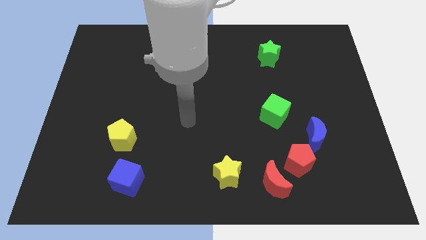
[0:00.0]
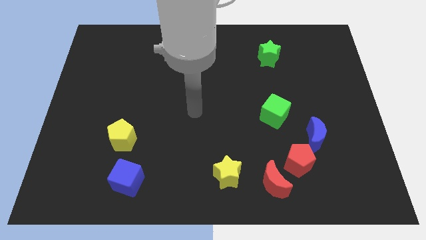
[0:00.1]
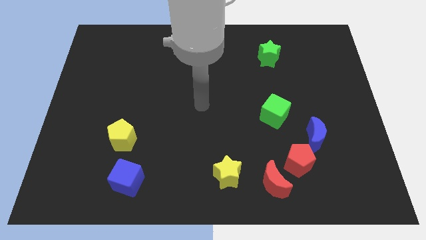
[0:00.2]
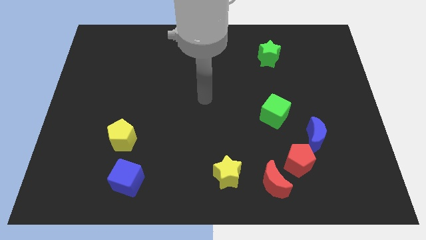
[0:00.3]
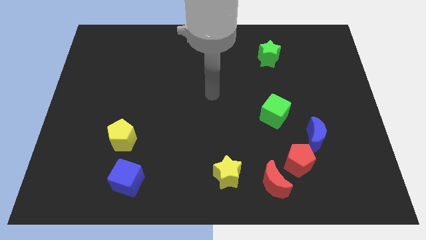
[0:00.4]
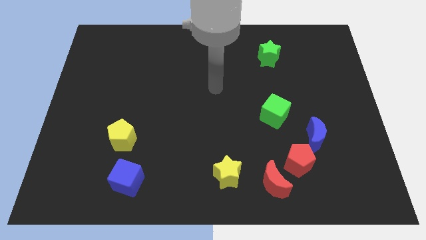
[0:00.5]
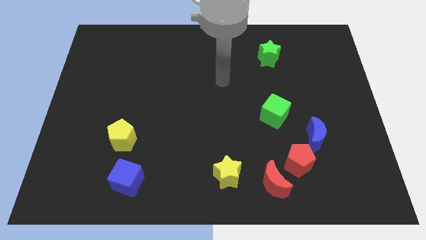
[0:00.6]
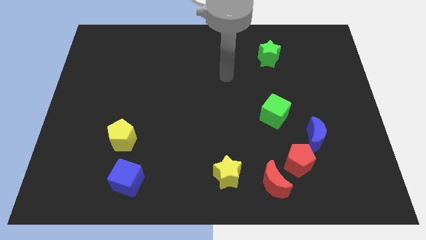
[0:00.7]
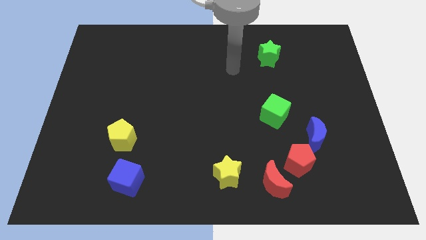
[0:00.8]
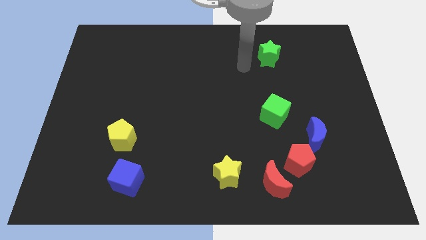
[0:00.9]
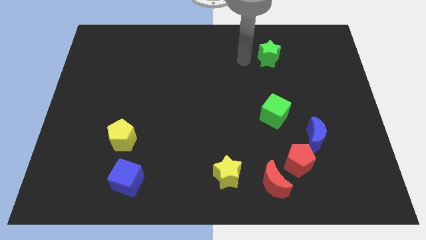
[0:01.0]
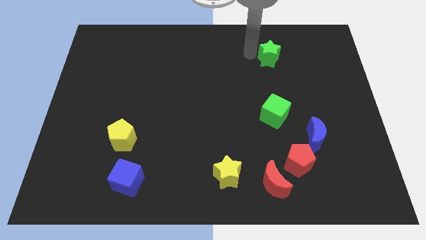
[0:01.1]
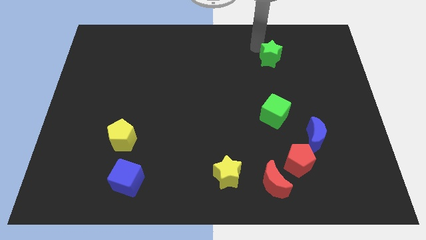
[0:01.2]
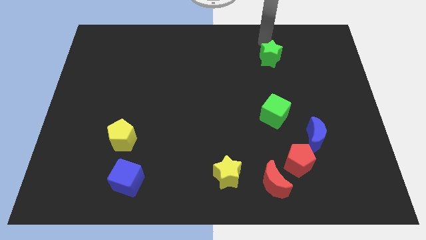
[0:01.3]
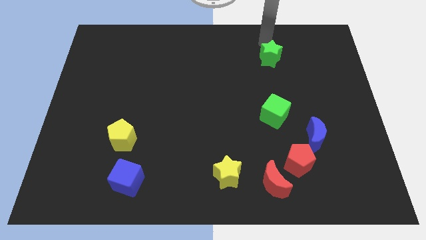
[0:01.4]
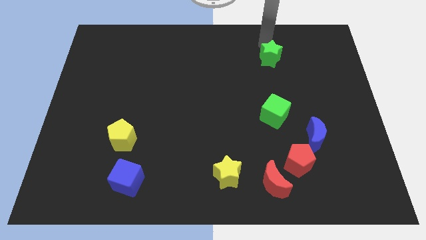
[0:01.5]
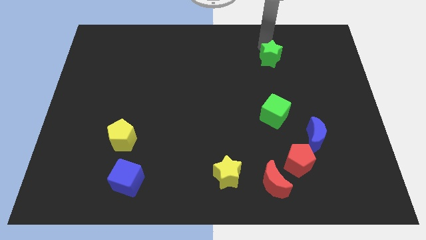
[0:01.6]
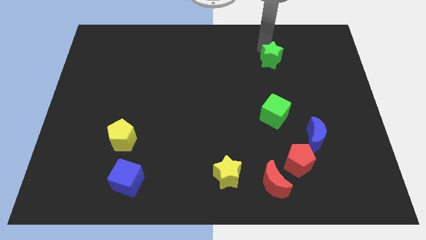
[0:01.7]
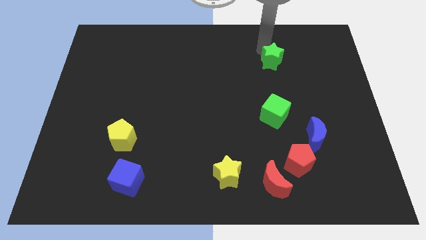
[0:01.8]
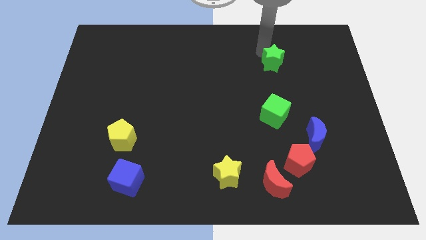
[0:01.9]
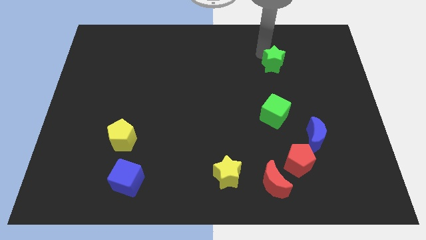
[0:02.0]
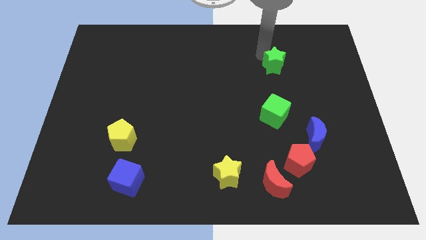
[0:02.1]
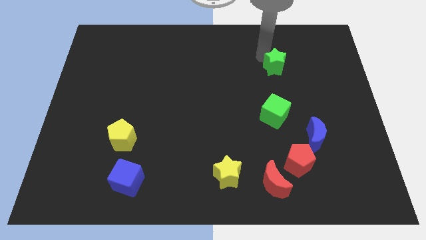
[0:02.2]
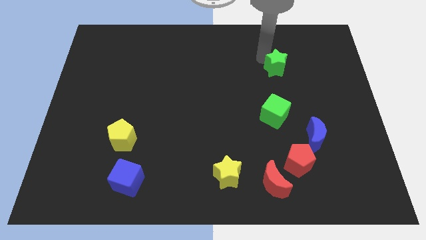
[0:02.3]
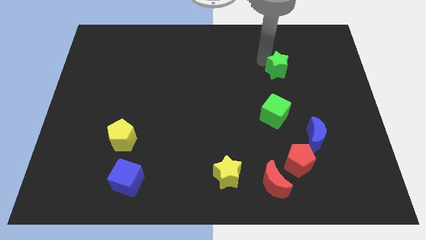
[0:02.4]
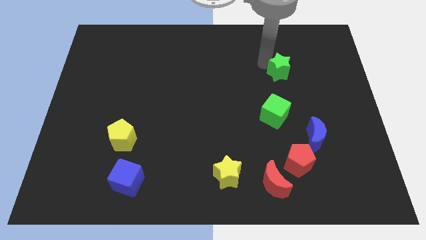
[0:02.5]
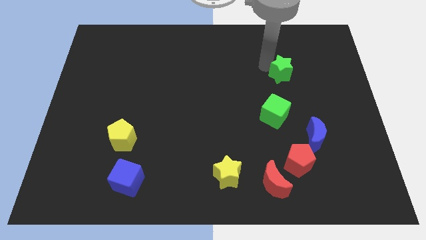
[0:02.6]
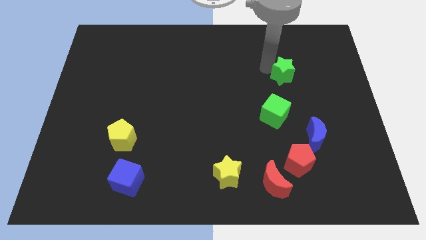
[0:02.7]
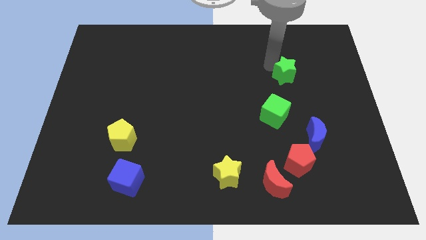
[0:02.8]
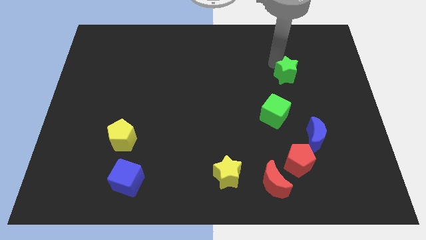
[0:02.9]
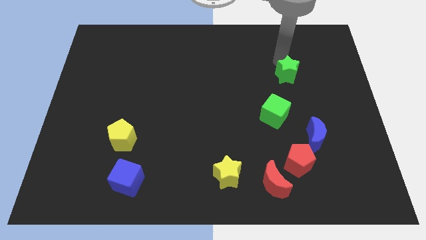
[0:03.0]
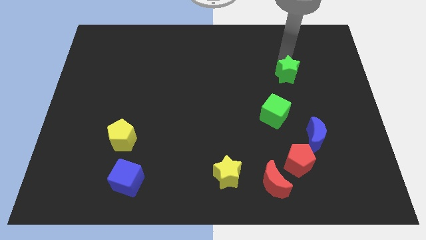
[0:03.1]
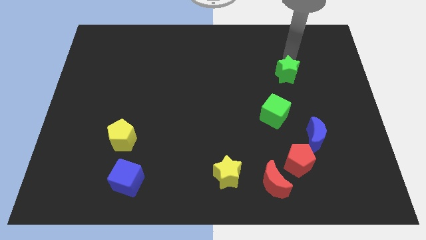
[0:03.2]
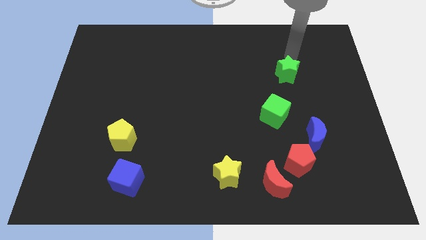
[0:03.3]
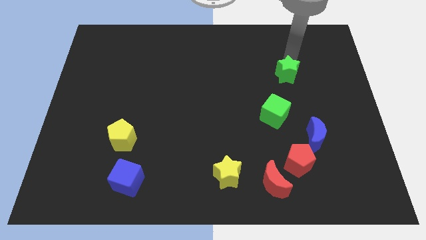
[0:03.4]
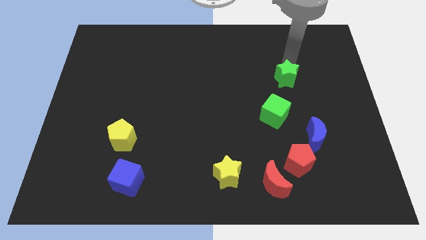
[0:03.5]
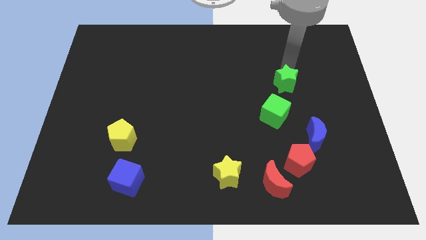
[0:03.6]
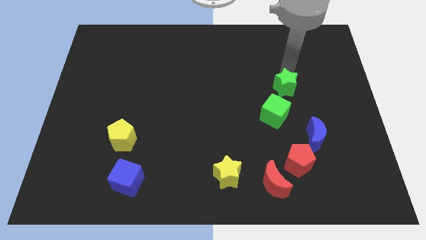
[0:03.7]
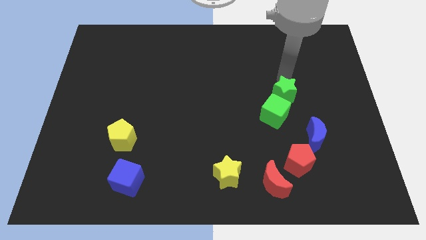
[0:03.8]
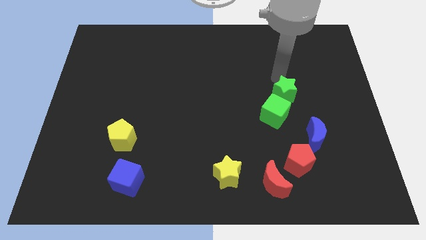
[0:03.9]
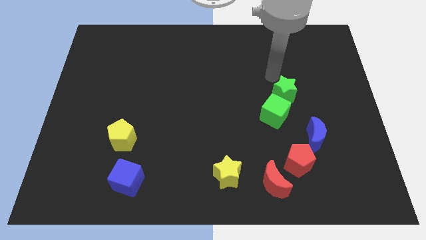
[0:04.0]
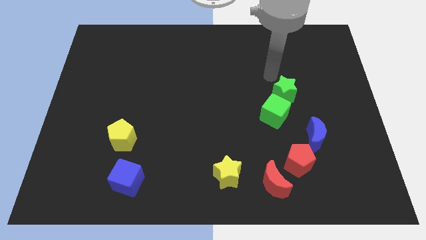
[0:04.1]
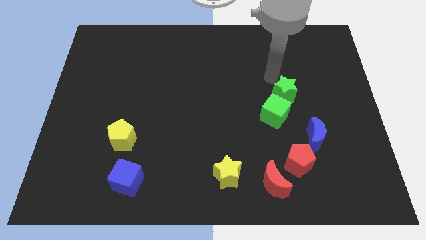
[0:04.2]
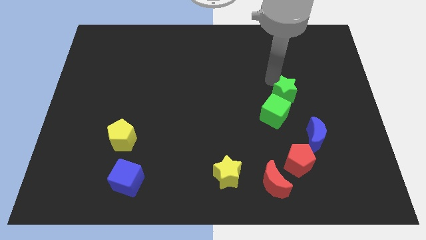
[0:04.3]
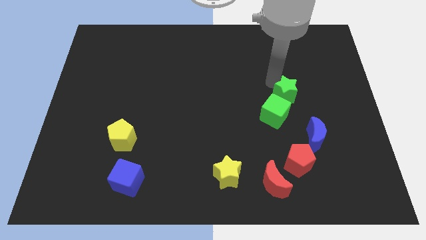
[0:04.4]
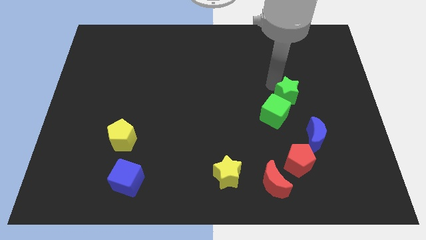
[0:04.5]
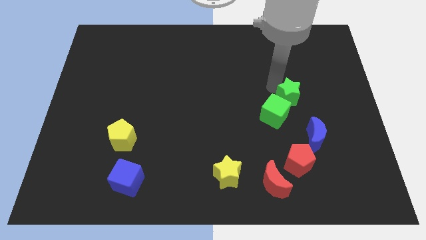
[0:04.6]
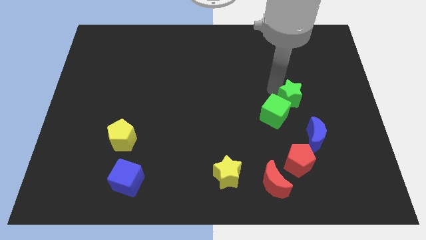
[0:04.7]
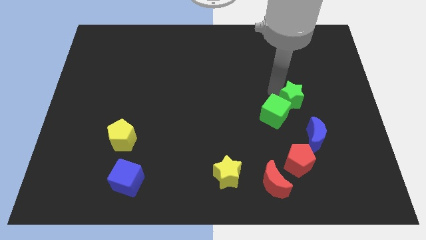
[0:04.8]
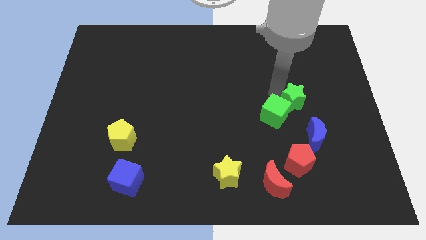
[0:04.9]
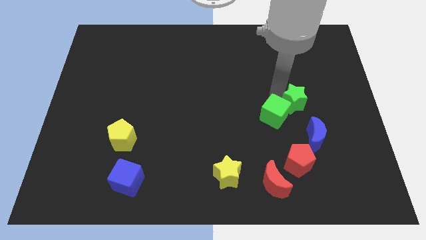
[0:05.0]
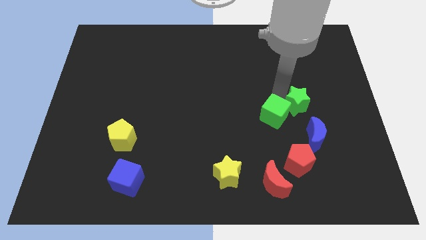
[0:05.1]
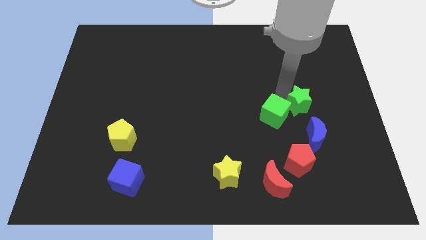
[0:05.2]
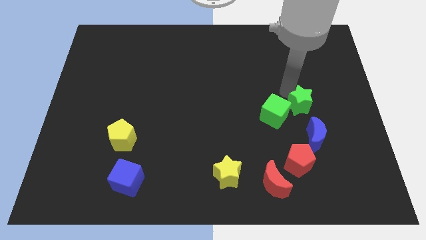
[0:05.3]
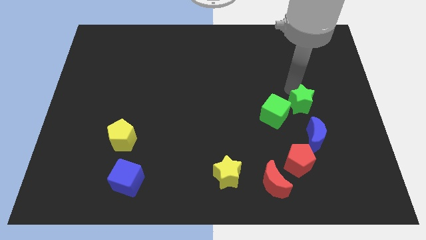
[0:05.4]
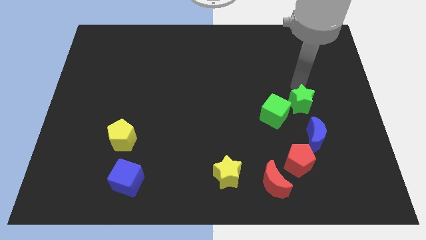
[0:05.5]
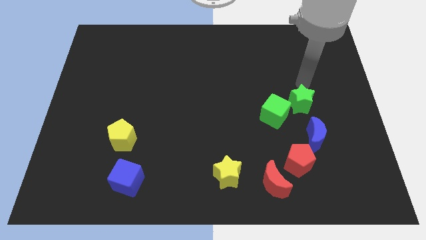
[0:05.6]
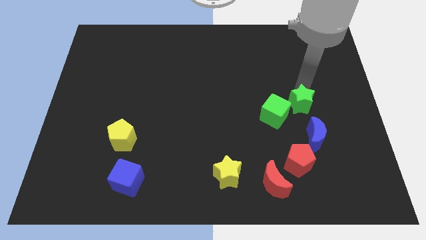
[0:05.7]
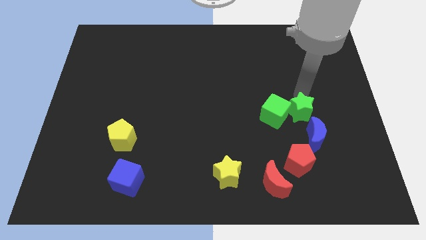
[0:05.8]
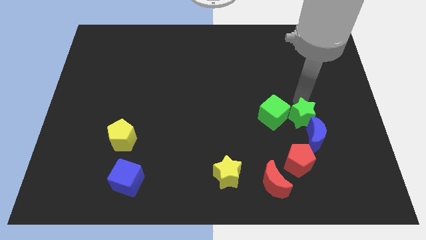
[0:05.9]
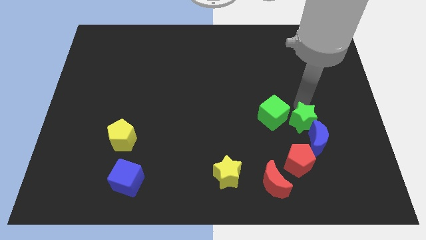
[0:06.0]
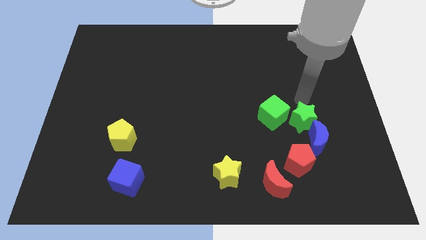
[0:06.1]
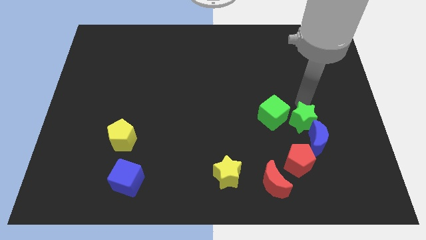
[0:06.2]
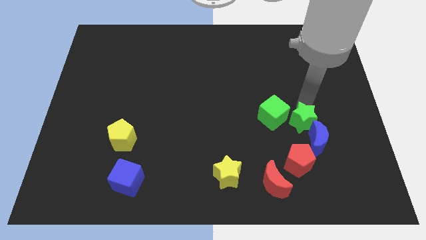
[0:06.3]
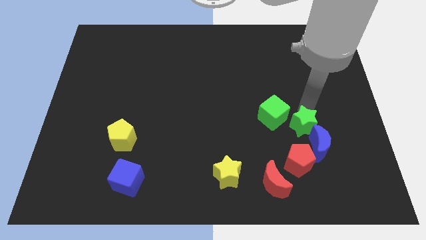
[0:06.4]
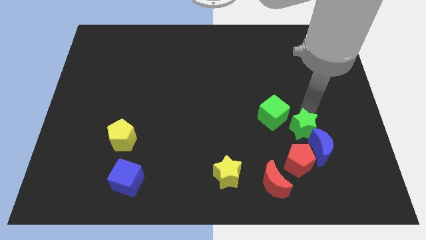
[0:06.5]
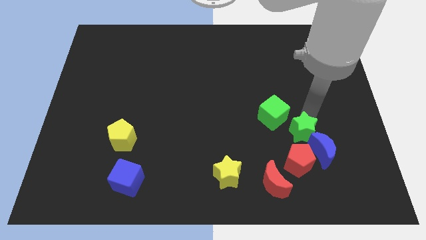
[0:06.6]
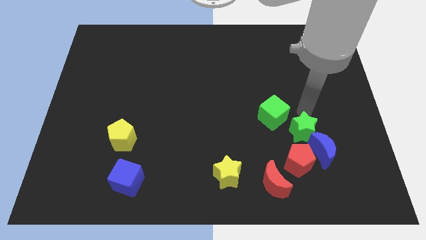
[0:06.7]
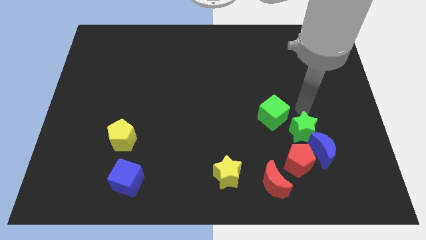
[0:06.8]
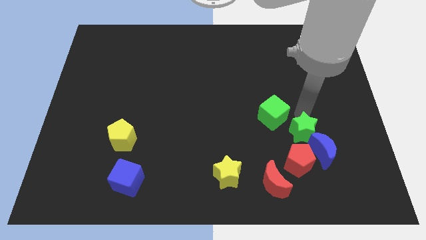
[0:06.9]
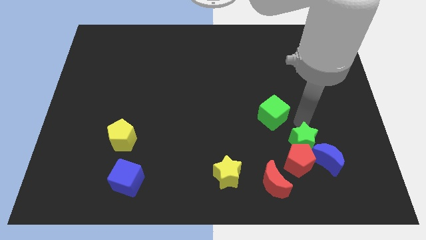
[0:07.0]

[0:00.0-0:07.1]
push the green star next to the red pentagon

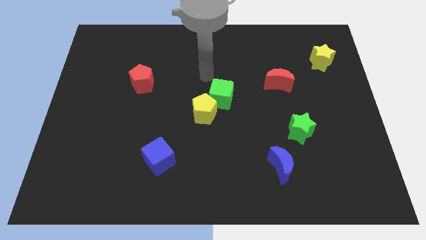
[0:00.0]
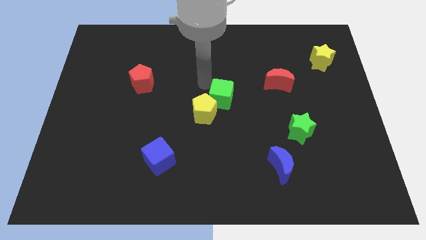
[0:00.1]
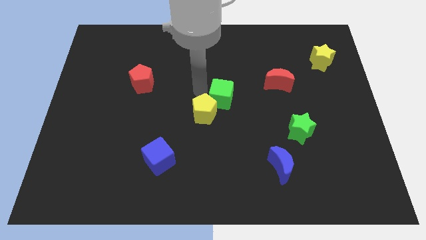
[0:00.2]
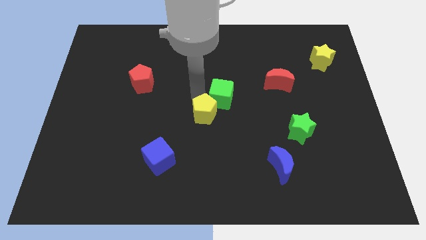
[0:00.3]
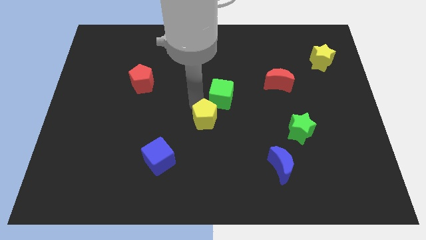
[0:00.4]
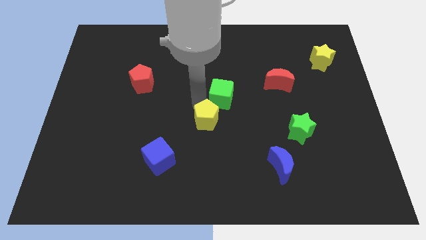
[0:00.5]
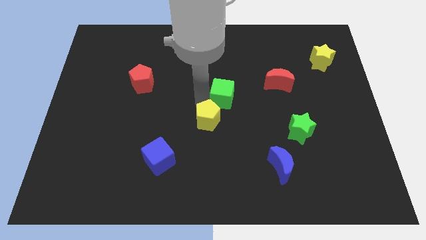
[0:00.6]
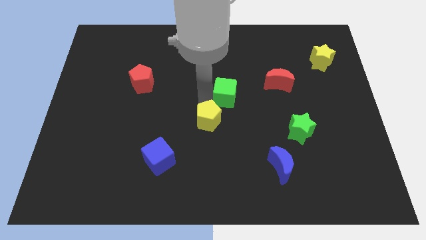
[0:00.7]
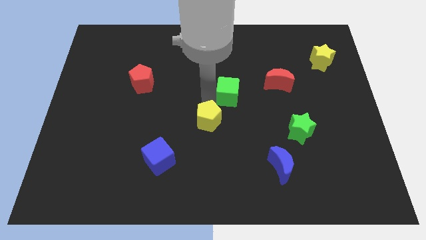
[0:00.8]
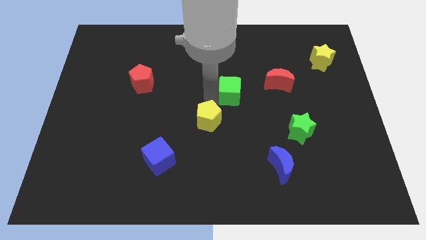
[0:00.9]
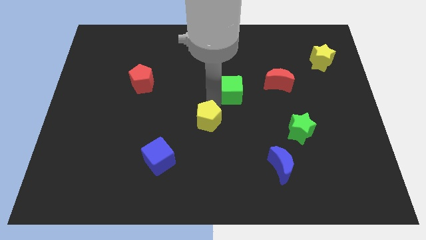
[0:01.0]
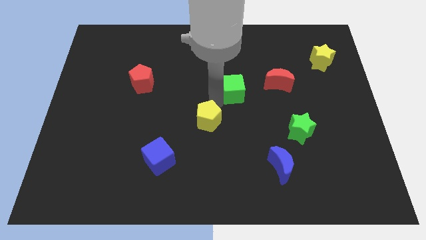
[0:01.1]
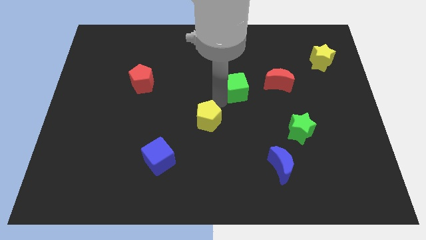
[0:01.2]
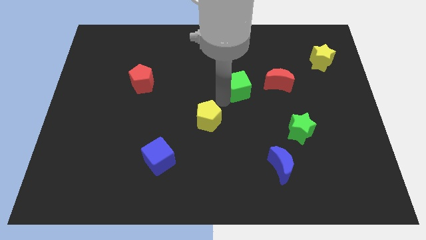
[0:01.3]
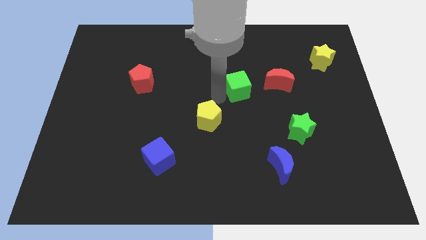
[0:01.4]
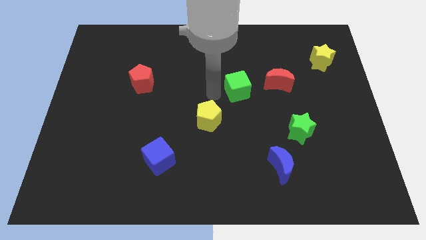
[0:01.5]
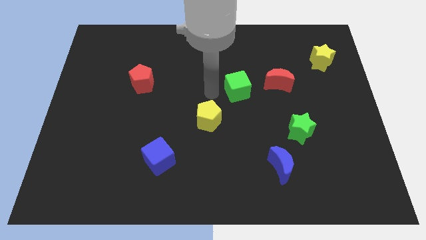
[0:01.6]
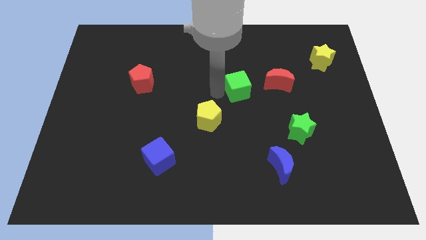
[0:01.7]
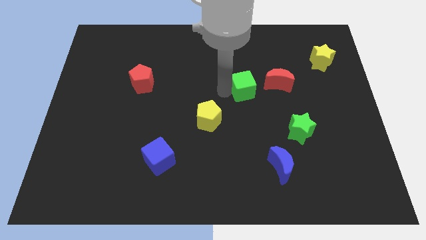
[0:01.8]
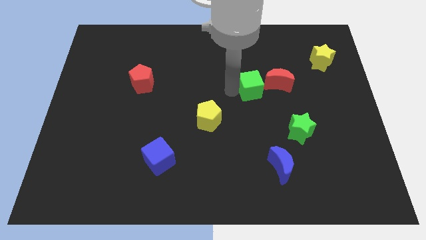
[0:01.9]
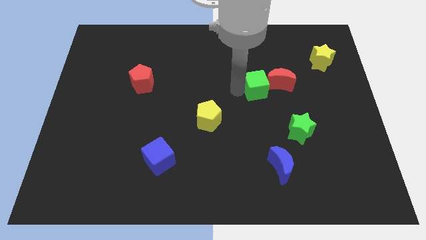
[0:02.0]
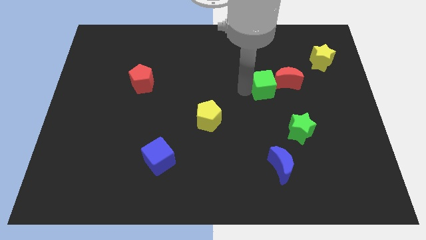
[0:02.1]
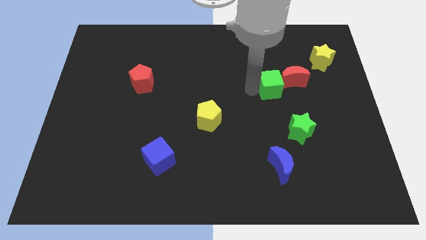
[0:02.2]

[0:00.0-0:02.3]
put the green cube to the red moon
